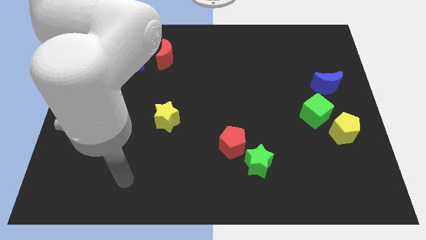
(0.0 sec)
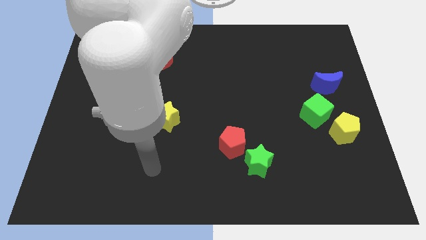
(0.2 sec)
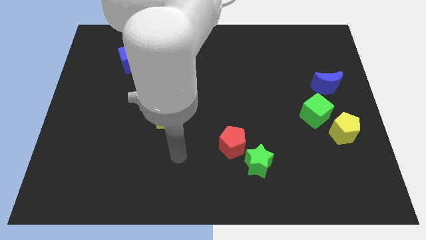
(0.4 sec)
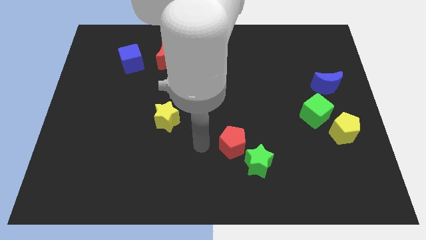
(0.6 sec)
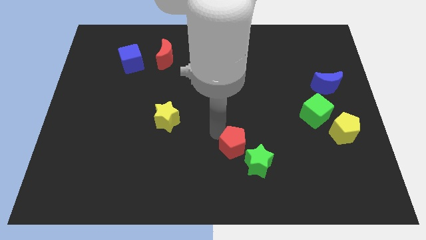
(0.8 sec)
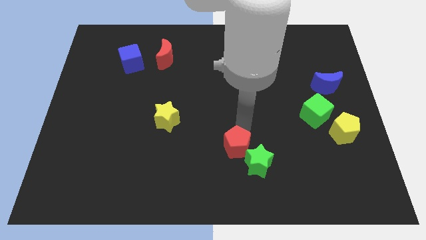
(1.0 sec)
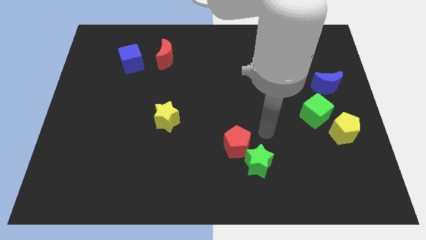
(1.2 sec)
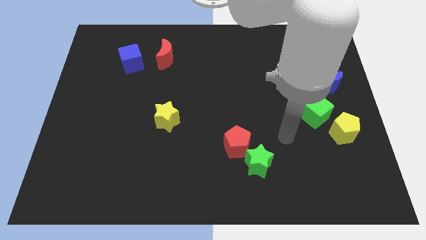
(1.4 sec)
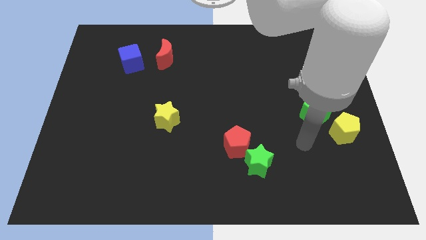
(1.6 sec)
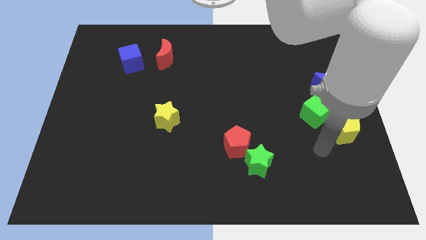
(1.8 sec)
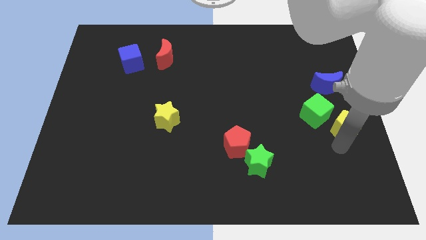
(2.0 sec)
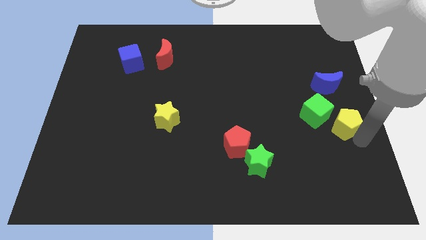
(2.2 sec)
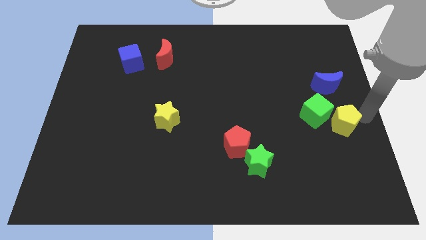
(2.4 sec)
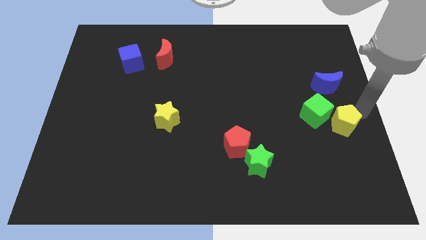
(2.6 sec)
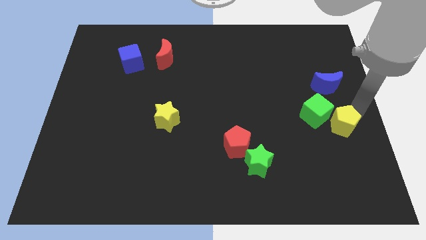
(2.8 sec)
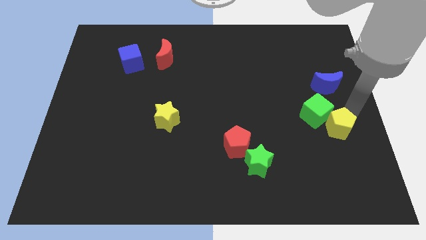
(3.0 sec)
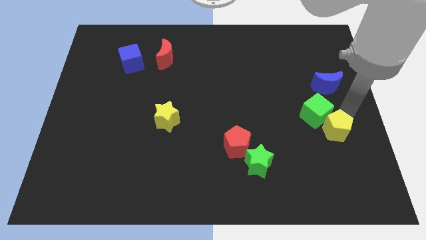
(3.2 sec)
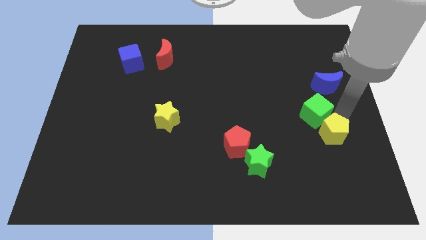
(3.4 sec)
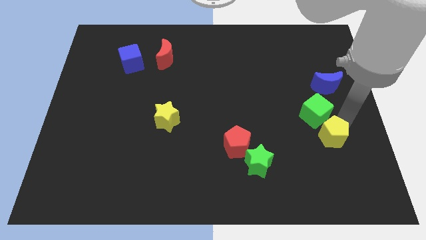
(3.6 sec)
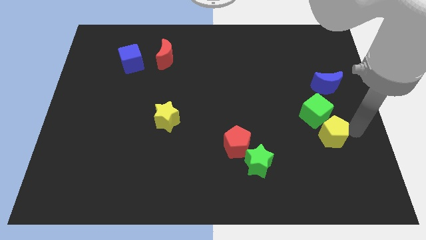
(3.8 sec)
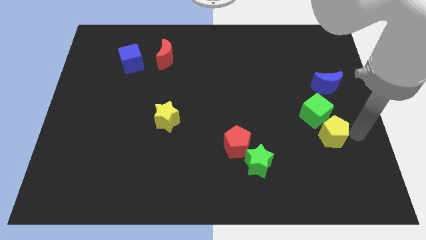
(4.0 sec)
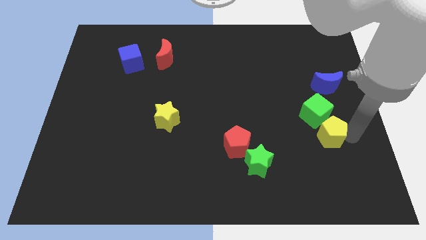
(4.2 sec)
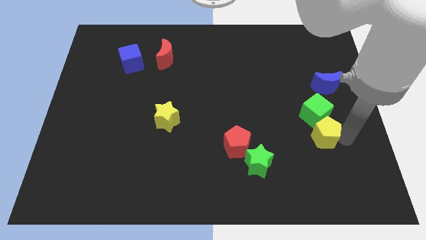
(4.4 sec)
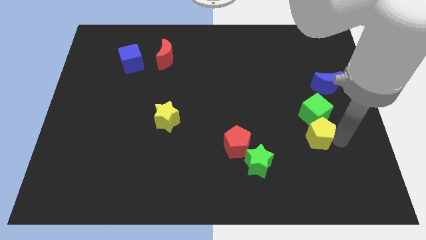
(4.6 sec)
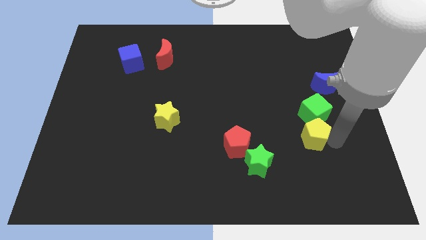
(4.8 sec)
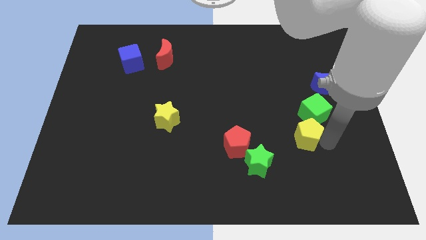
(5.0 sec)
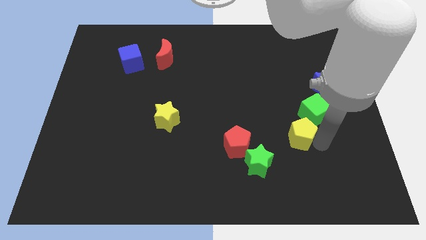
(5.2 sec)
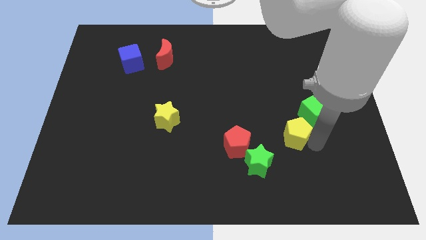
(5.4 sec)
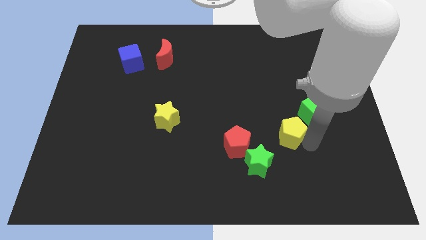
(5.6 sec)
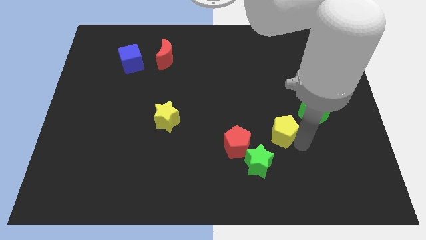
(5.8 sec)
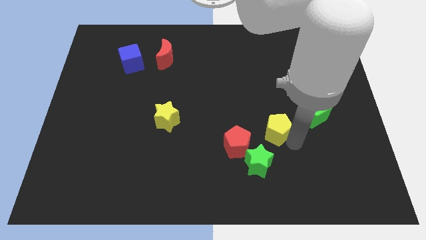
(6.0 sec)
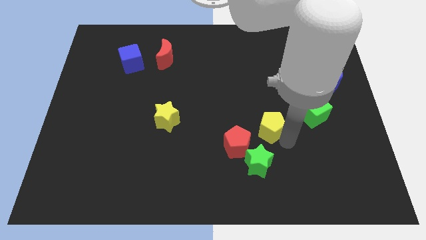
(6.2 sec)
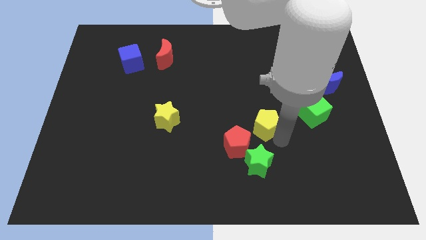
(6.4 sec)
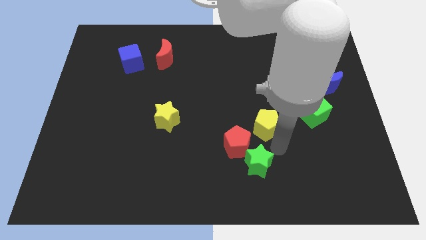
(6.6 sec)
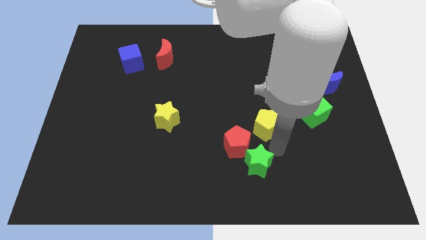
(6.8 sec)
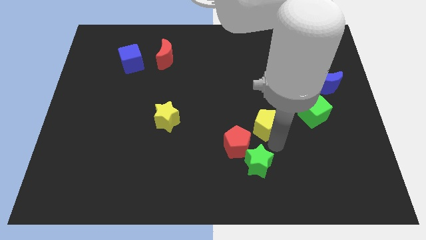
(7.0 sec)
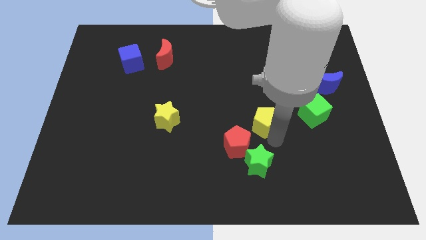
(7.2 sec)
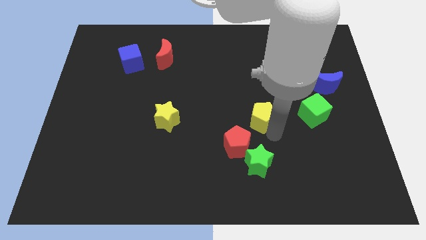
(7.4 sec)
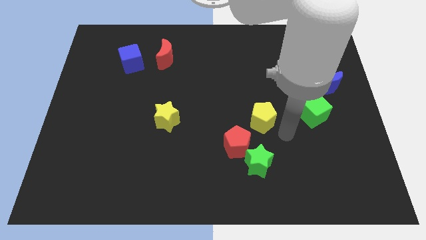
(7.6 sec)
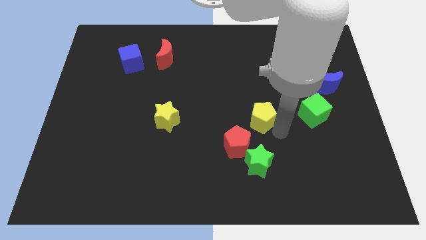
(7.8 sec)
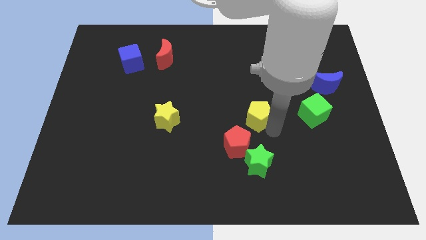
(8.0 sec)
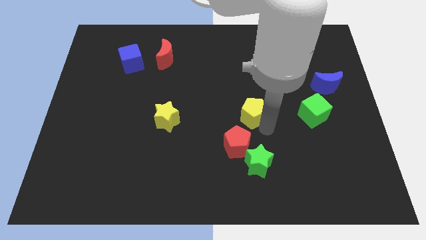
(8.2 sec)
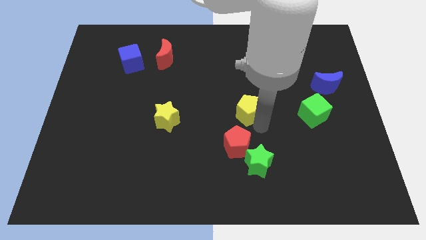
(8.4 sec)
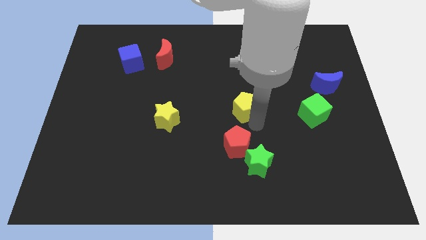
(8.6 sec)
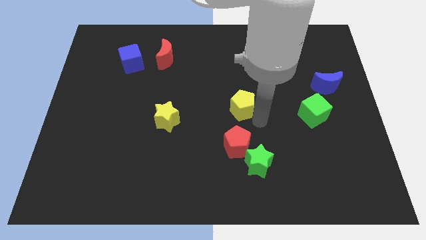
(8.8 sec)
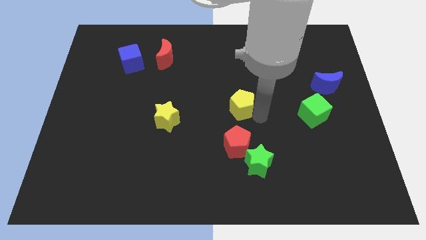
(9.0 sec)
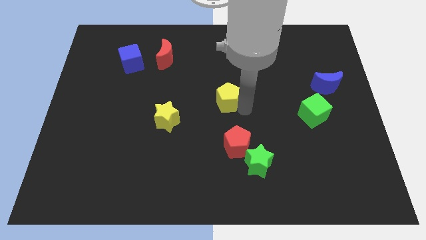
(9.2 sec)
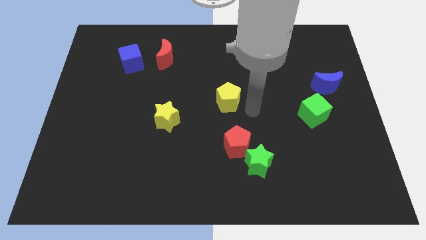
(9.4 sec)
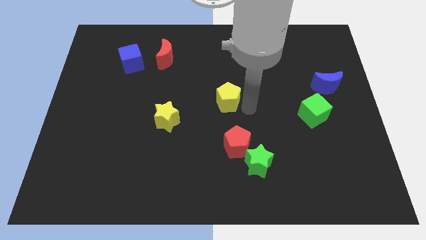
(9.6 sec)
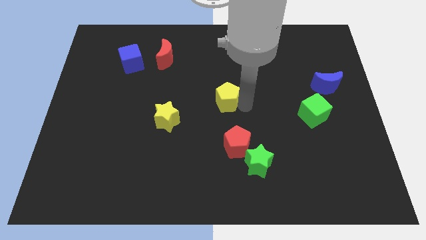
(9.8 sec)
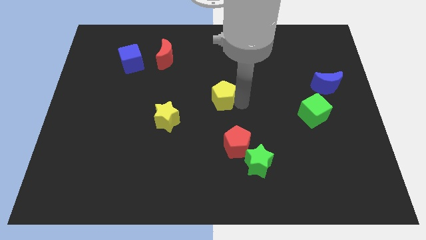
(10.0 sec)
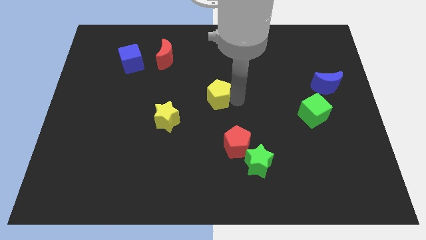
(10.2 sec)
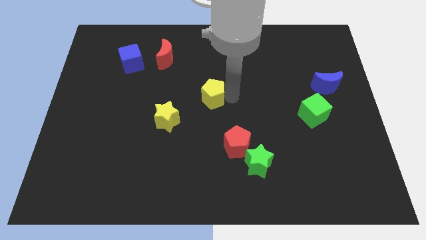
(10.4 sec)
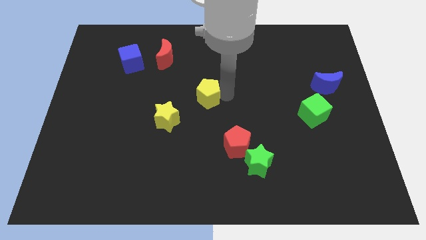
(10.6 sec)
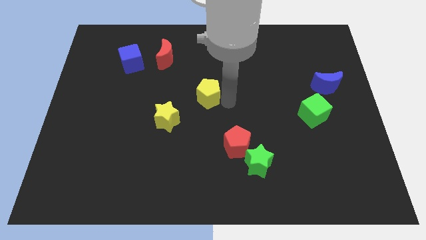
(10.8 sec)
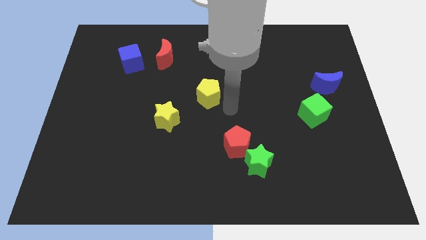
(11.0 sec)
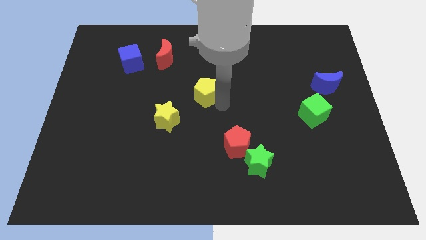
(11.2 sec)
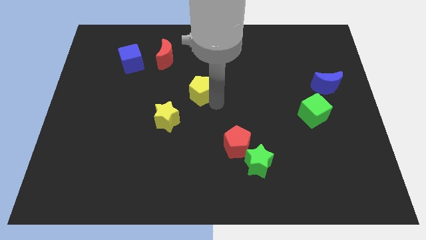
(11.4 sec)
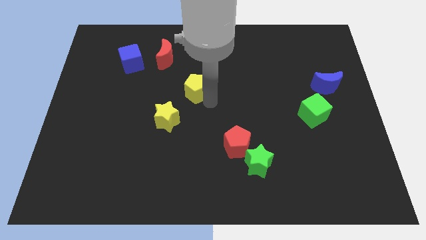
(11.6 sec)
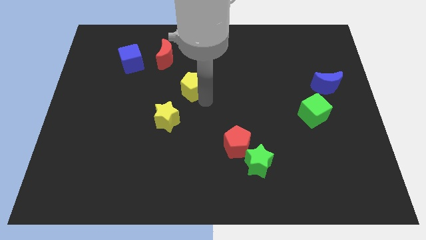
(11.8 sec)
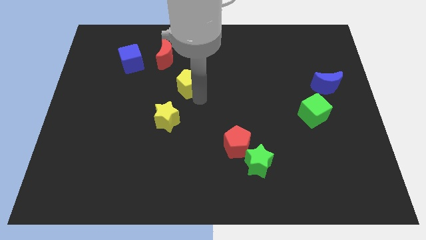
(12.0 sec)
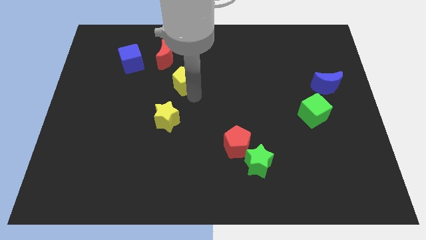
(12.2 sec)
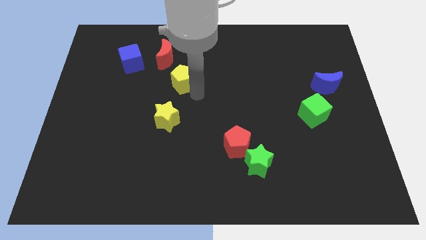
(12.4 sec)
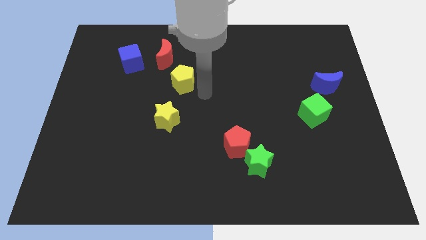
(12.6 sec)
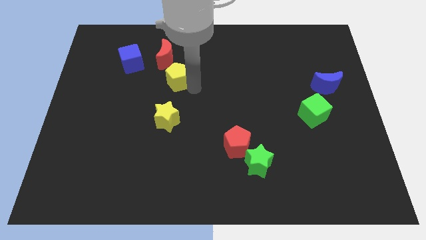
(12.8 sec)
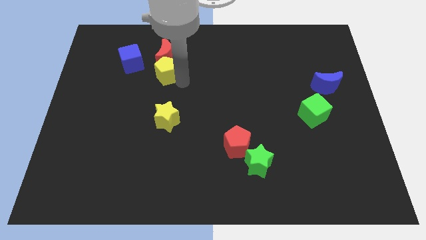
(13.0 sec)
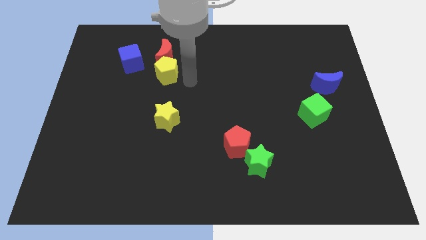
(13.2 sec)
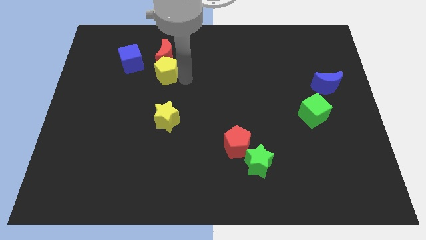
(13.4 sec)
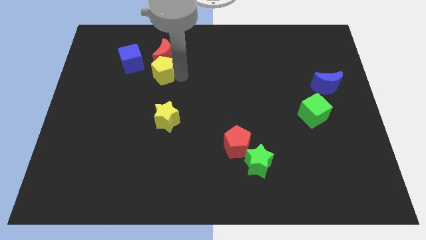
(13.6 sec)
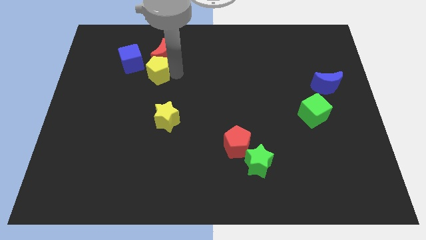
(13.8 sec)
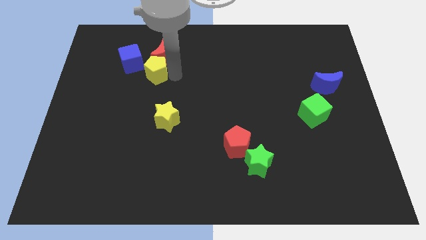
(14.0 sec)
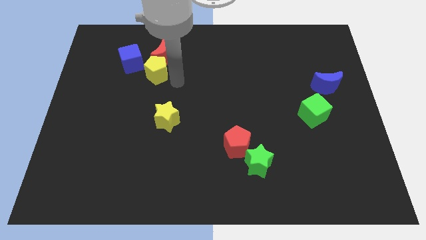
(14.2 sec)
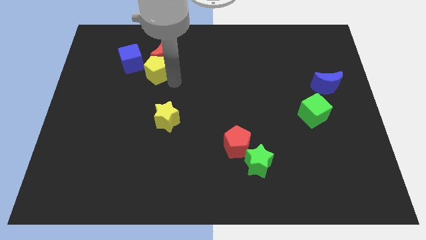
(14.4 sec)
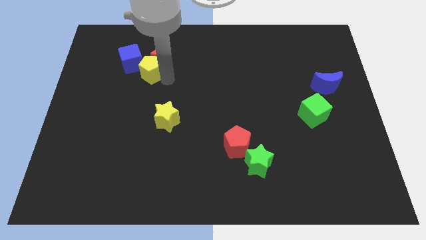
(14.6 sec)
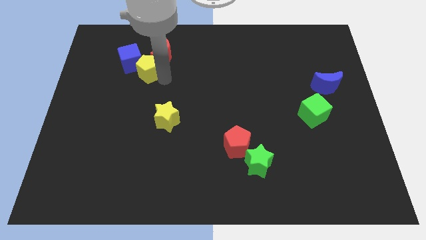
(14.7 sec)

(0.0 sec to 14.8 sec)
push the yellow pentagon next to the blue cube
